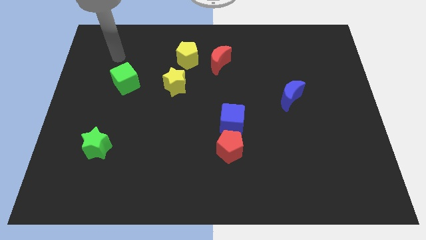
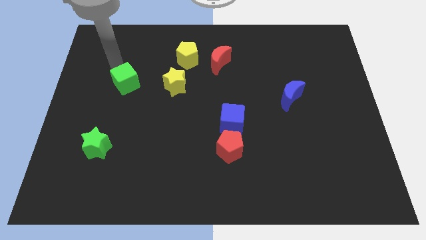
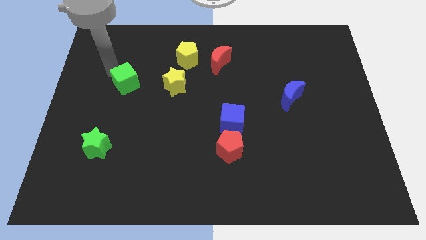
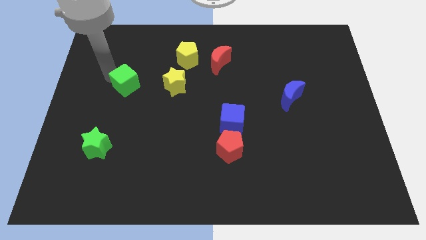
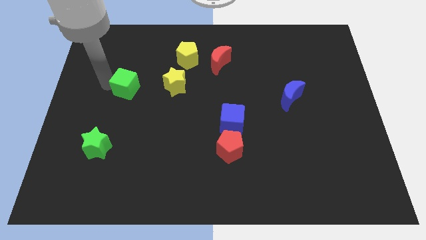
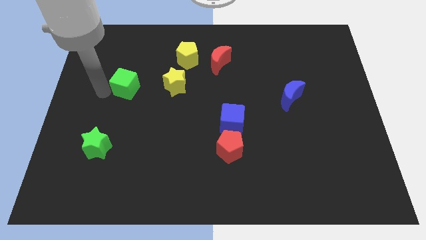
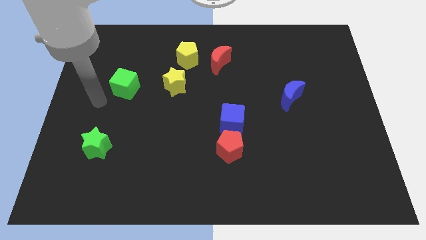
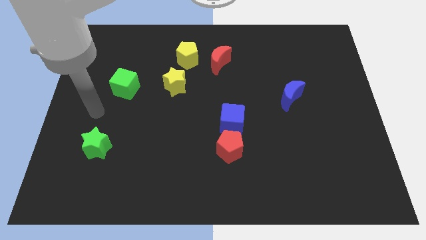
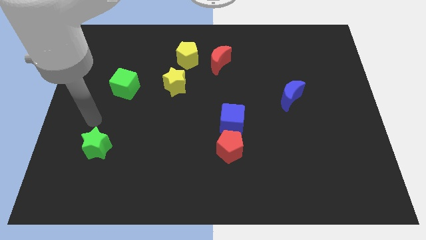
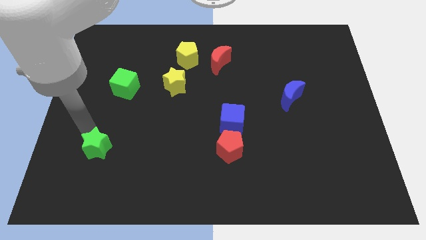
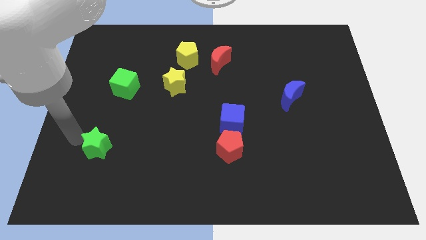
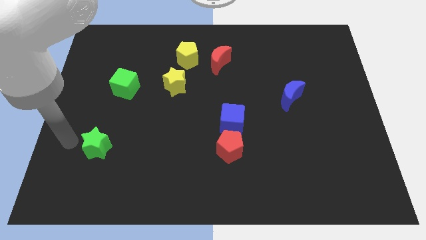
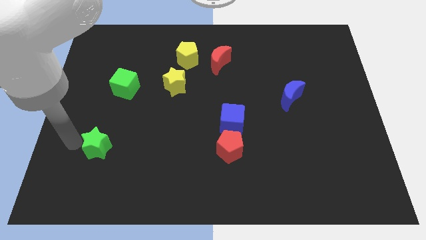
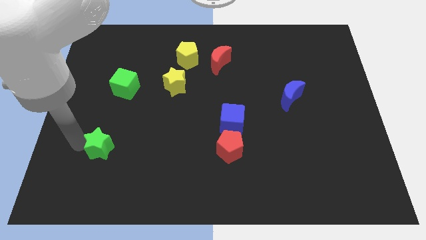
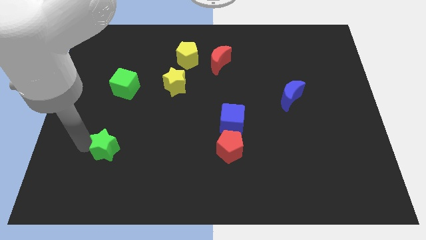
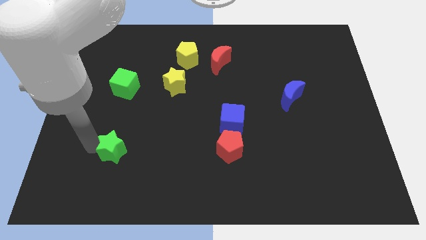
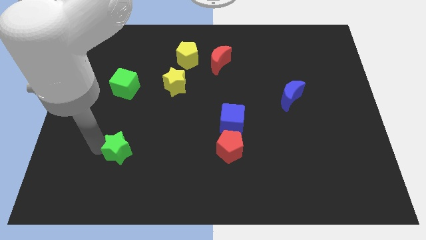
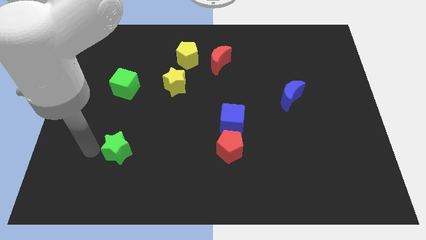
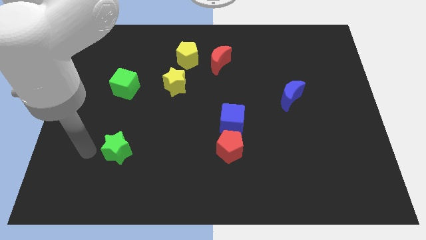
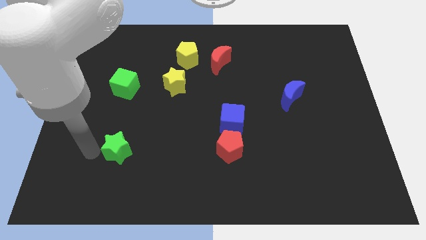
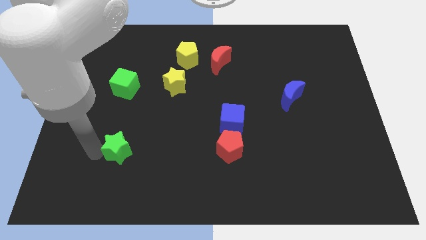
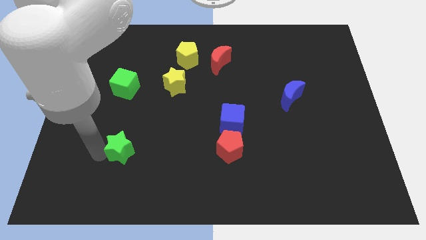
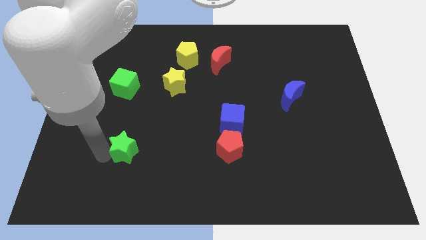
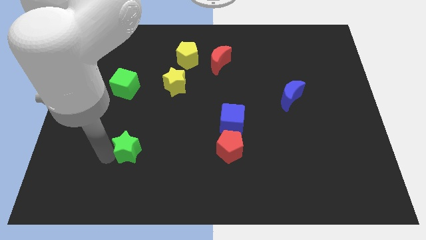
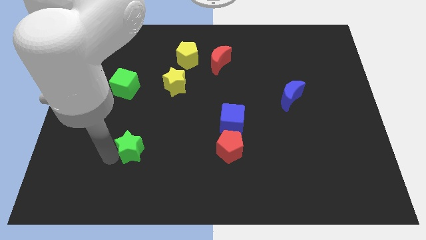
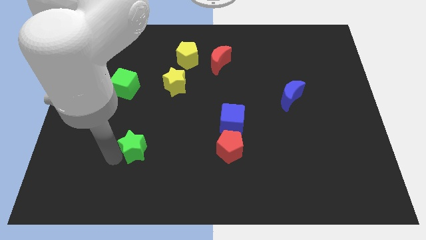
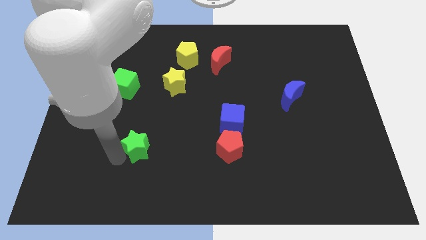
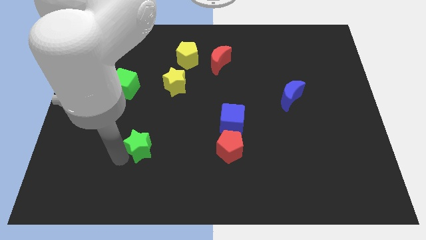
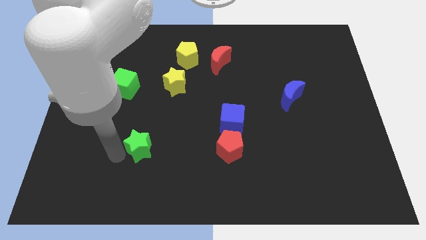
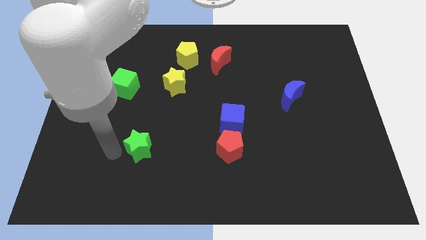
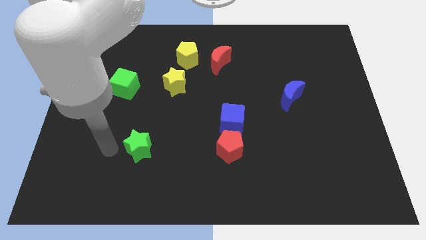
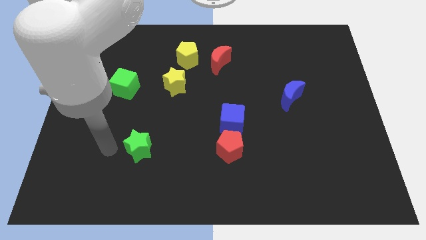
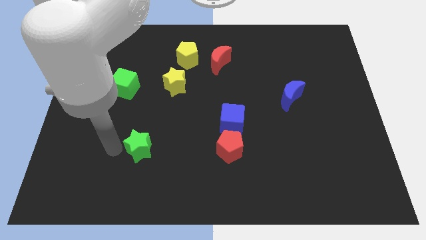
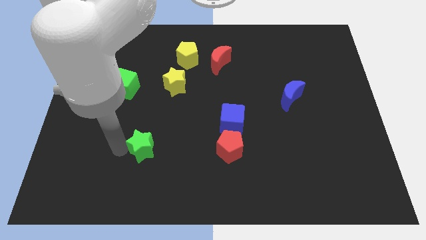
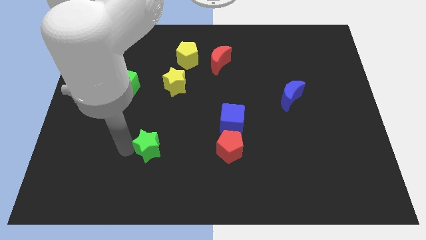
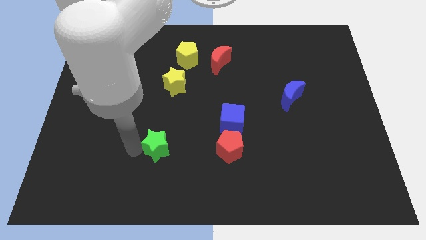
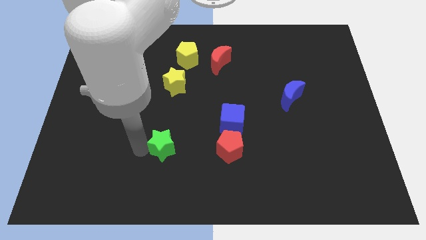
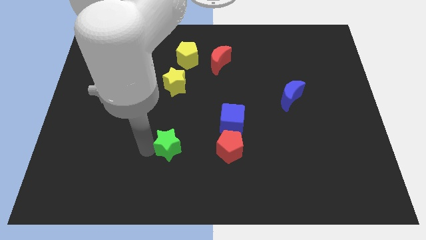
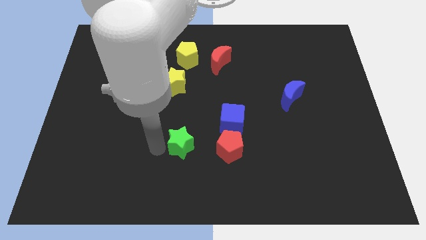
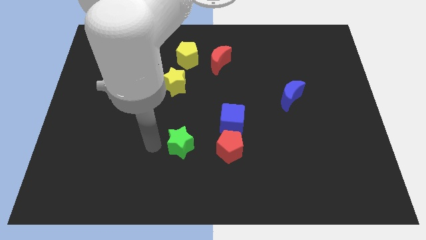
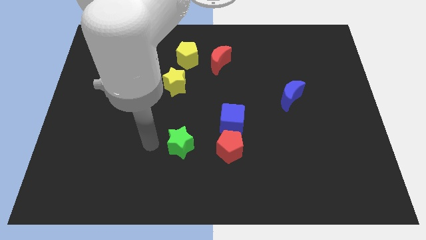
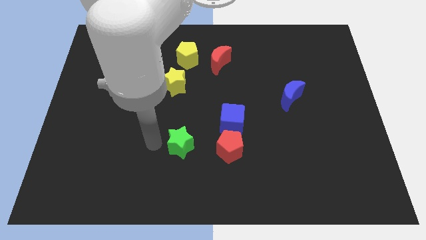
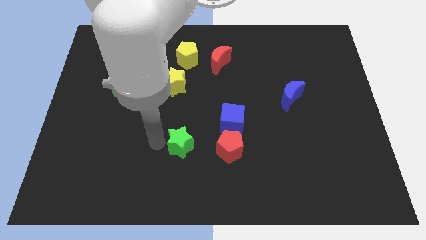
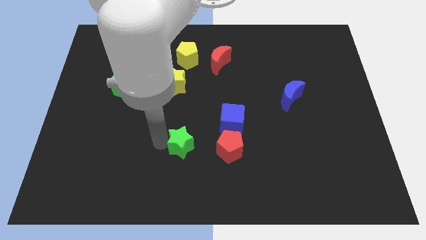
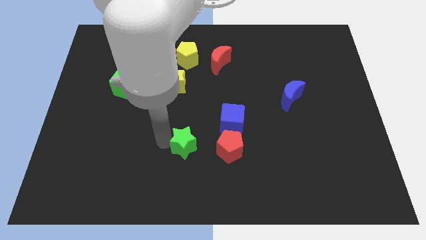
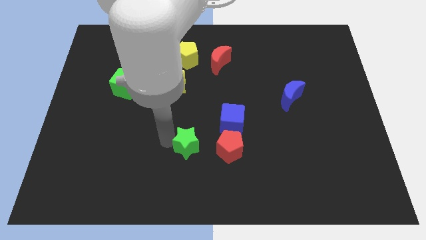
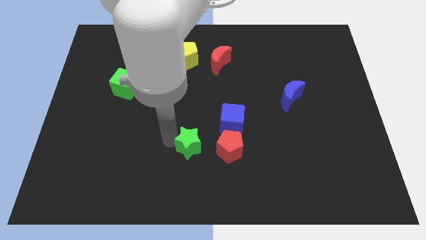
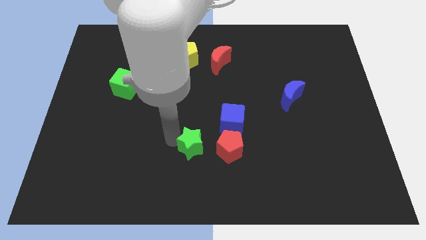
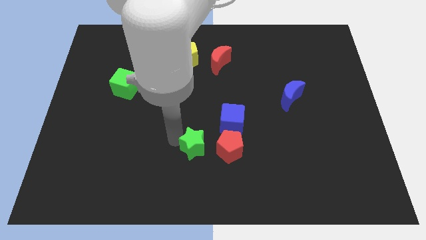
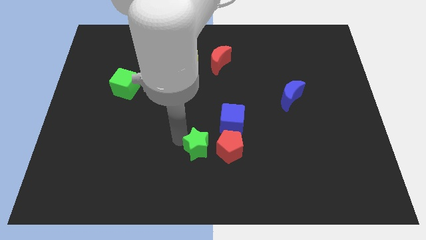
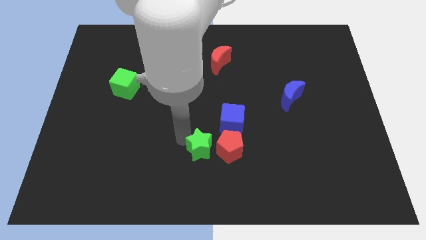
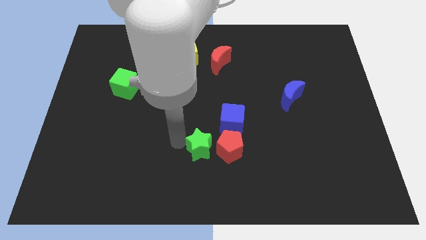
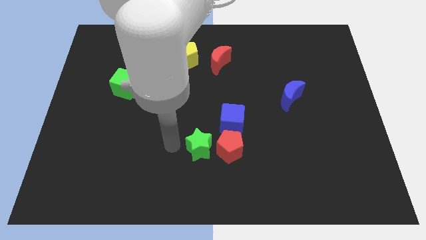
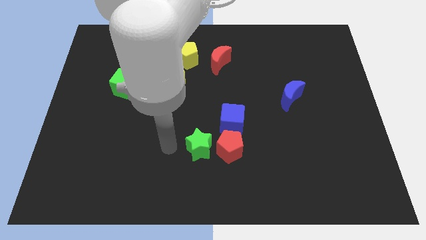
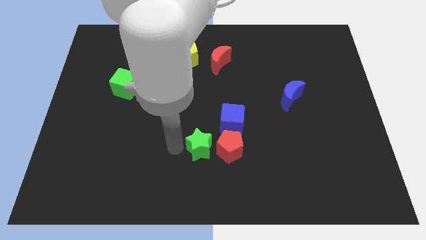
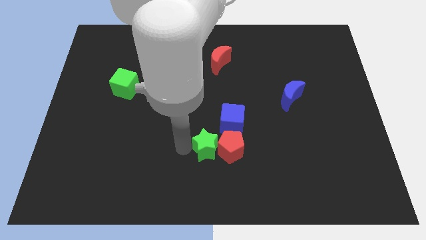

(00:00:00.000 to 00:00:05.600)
move the green star next to the red pentagon

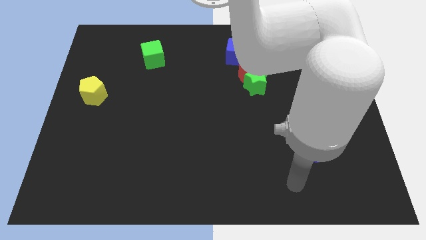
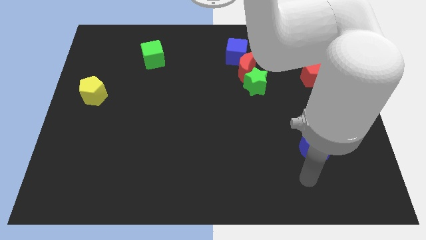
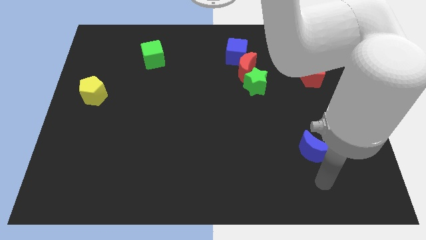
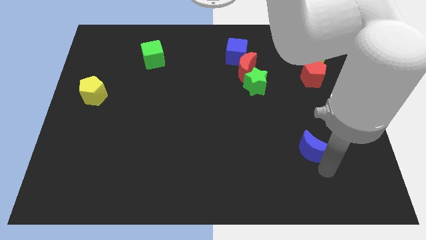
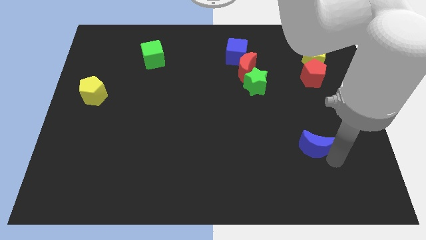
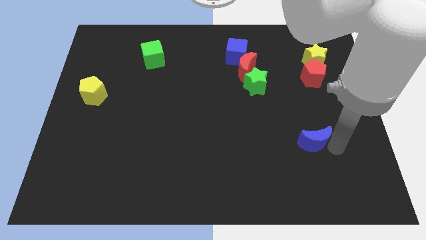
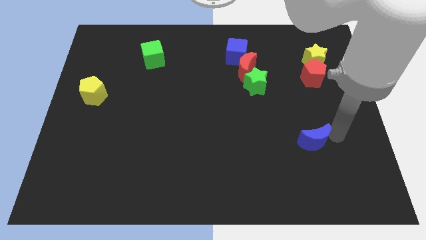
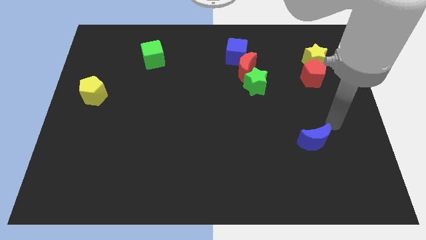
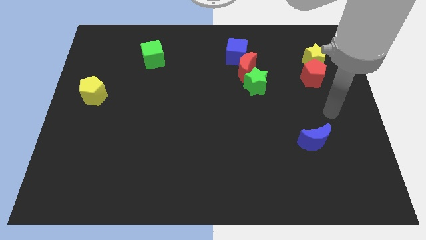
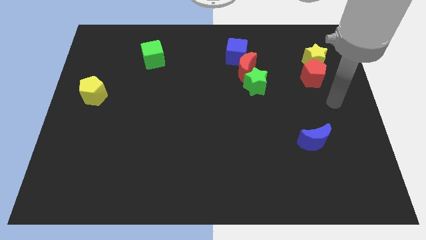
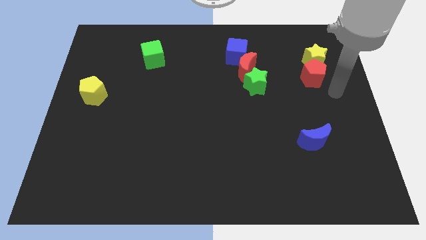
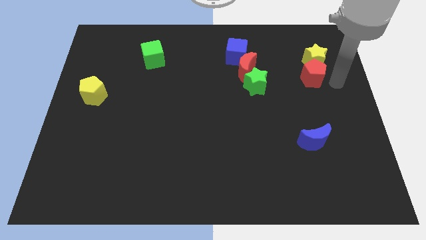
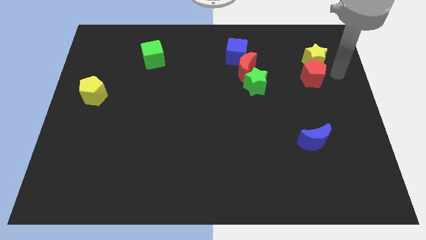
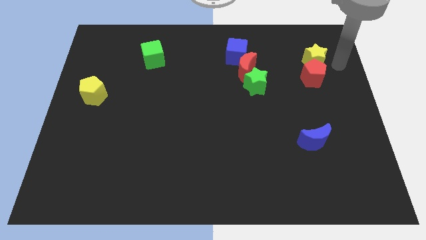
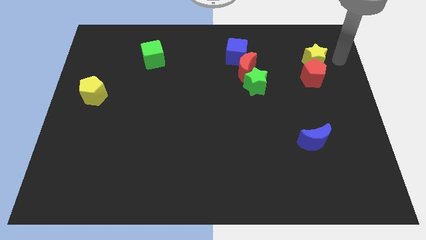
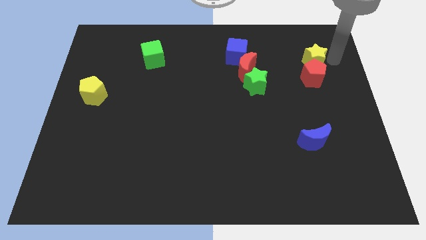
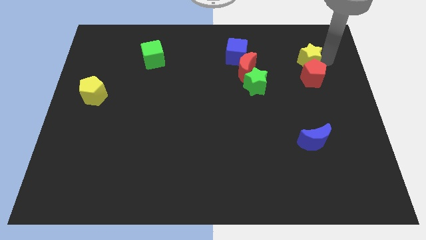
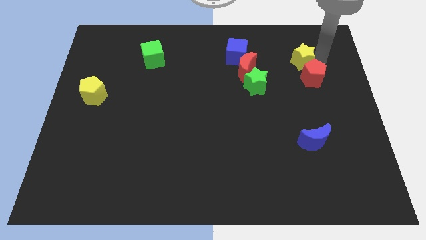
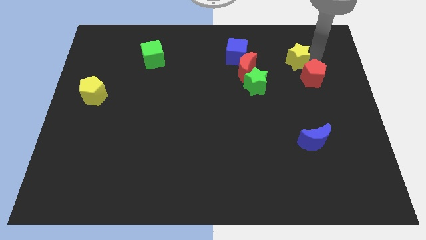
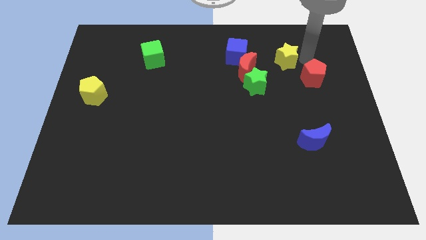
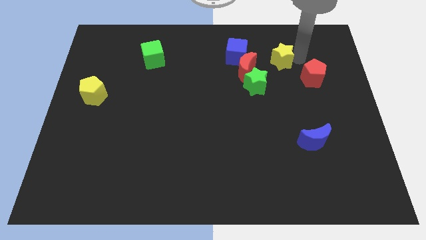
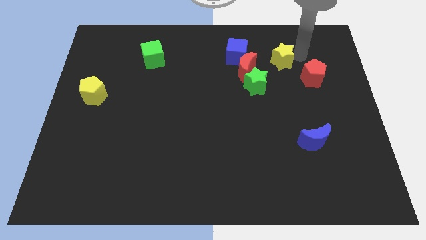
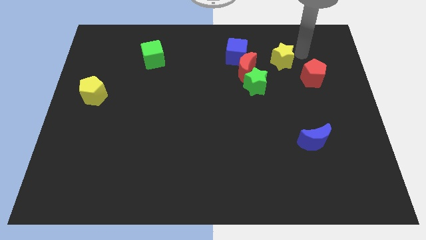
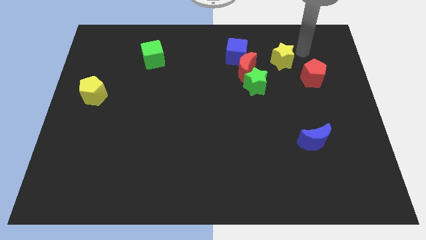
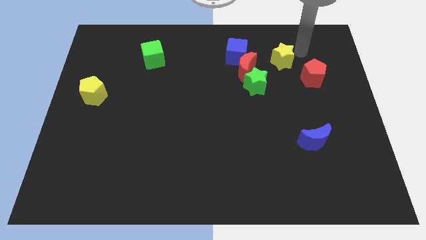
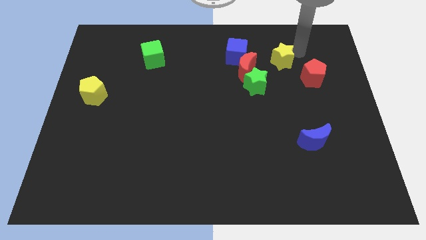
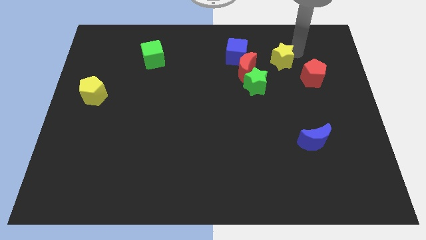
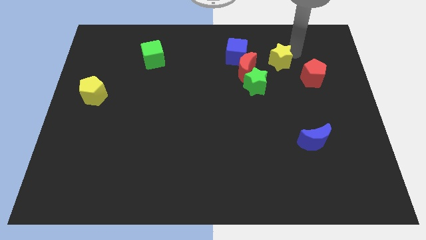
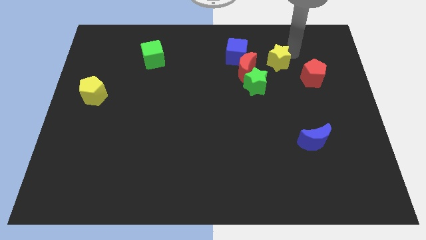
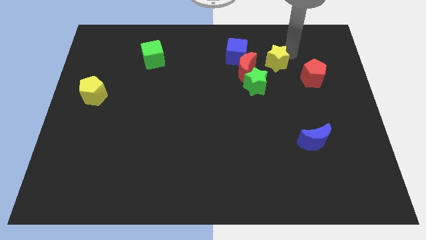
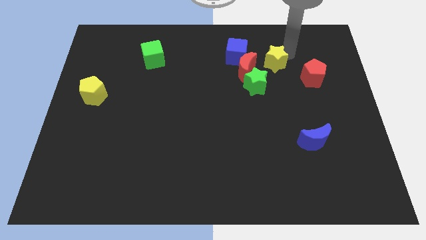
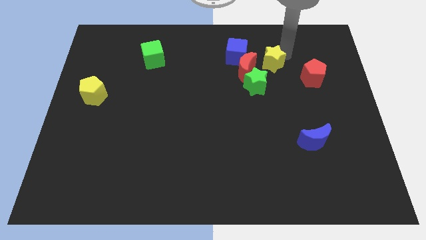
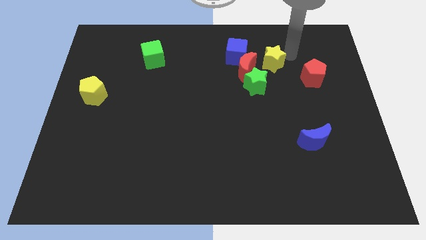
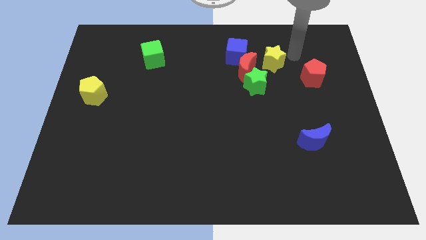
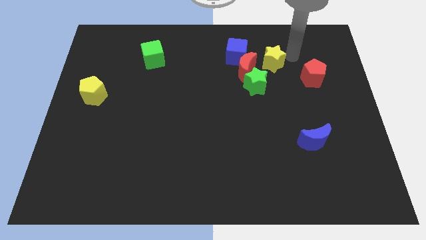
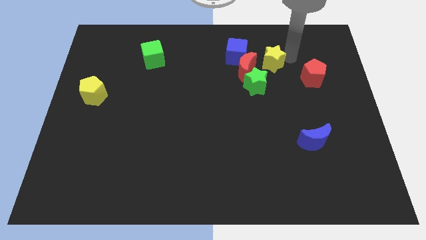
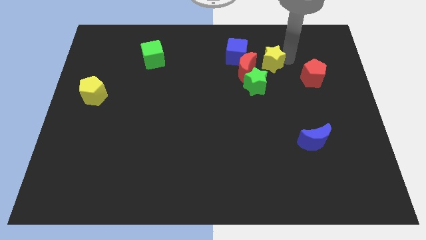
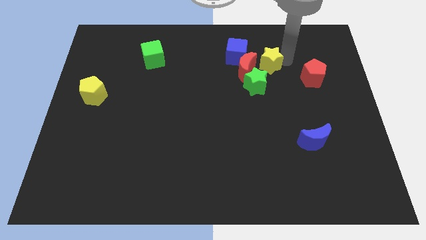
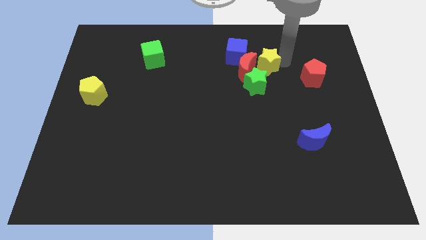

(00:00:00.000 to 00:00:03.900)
push the yellow star close to the red moon
